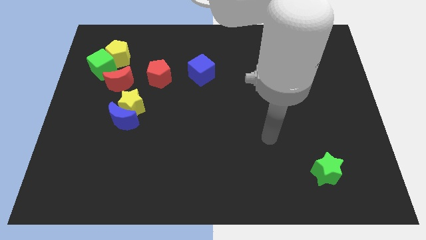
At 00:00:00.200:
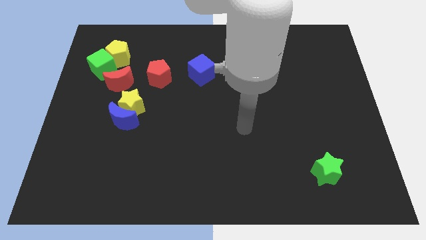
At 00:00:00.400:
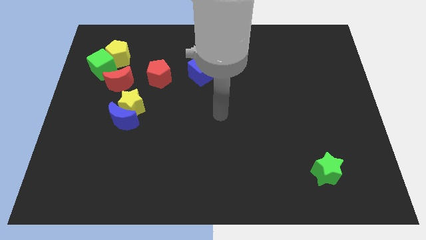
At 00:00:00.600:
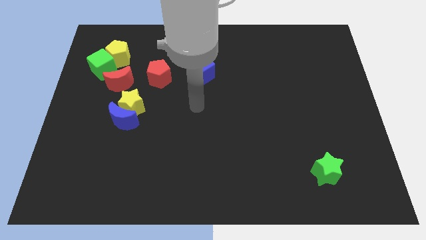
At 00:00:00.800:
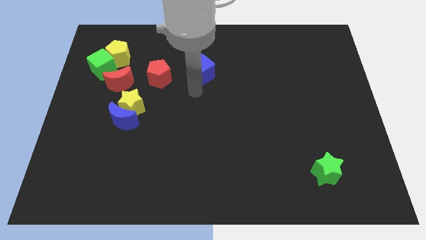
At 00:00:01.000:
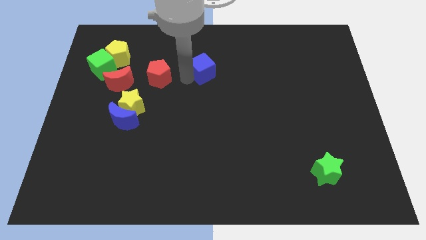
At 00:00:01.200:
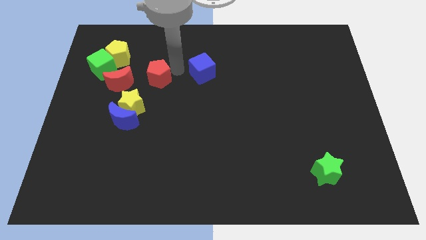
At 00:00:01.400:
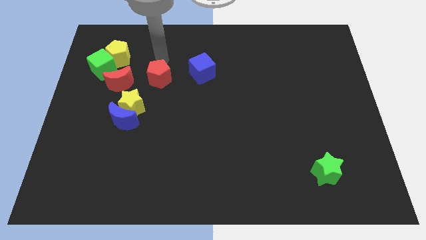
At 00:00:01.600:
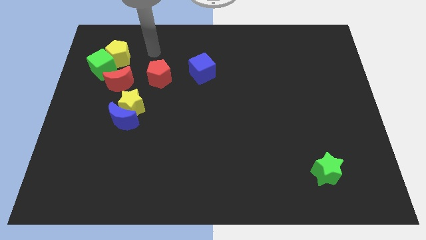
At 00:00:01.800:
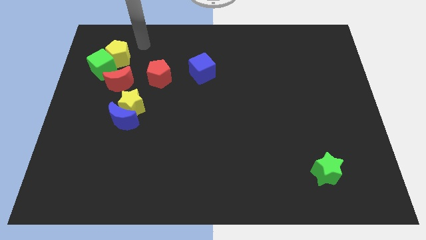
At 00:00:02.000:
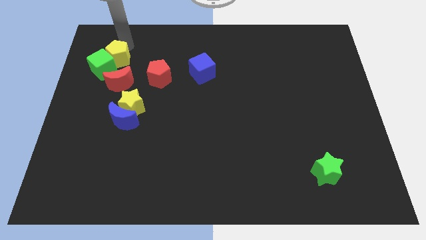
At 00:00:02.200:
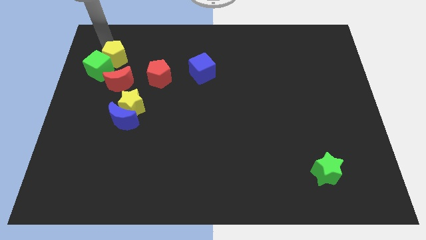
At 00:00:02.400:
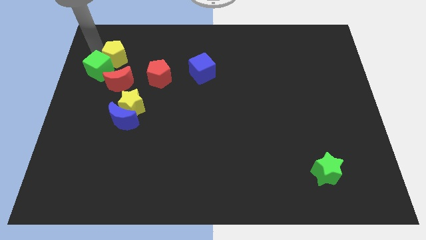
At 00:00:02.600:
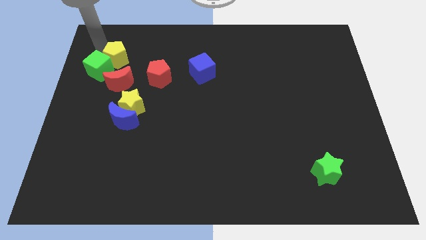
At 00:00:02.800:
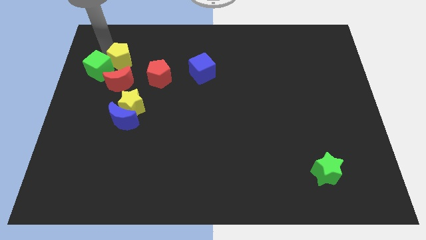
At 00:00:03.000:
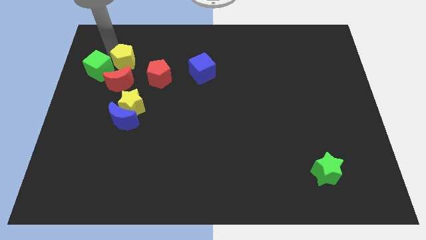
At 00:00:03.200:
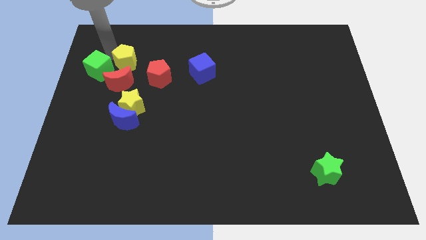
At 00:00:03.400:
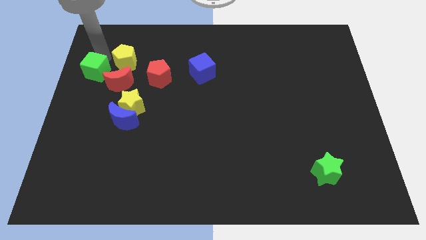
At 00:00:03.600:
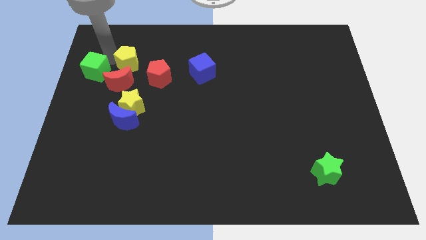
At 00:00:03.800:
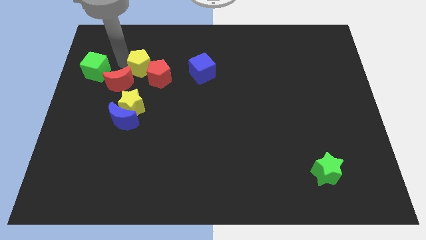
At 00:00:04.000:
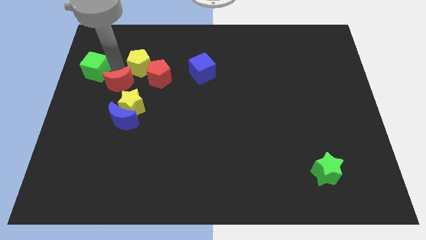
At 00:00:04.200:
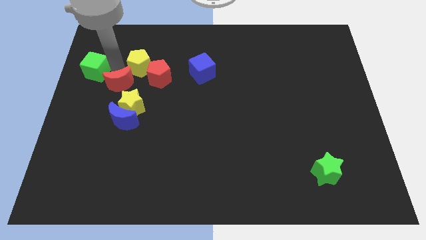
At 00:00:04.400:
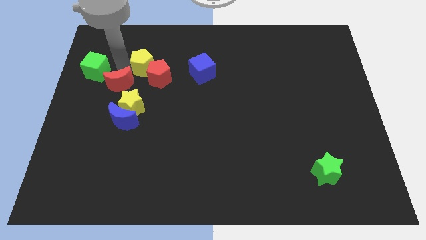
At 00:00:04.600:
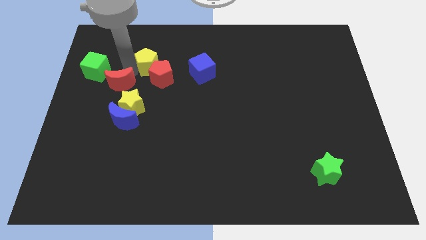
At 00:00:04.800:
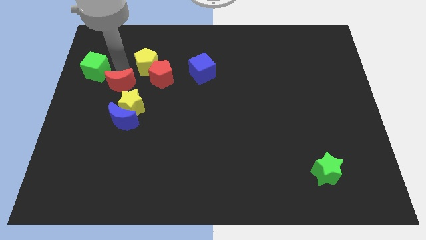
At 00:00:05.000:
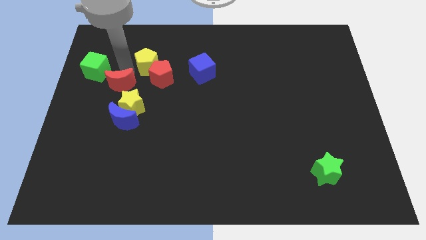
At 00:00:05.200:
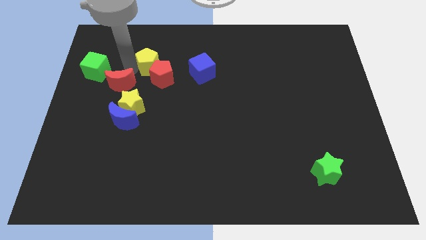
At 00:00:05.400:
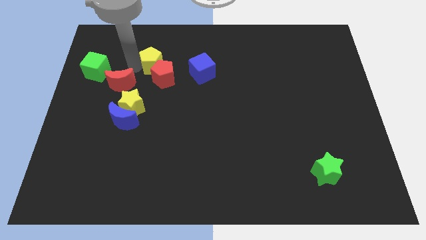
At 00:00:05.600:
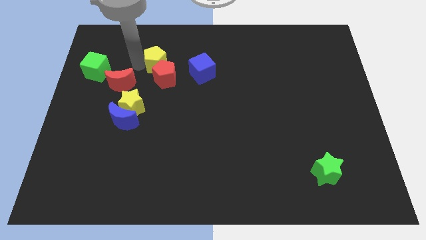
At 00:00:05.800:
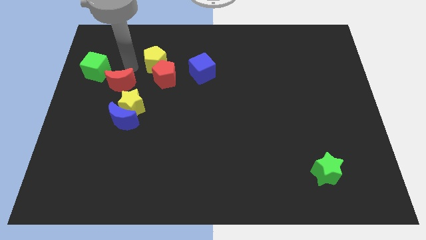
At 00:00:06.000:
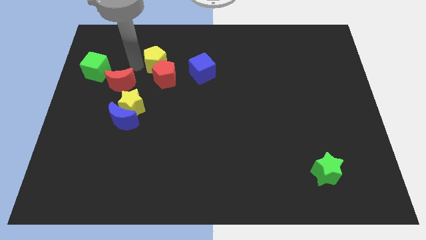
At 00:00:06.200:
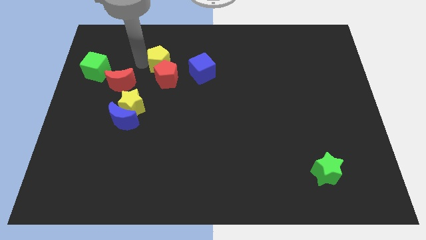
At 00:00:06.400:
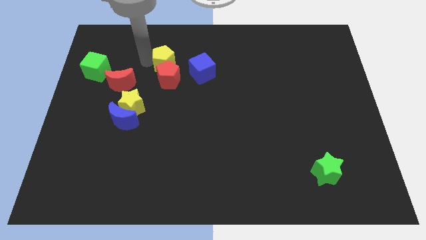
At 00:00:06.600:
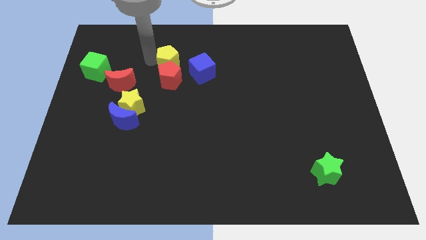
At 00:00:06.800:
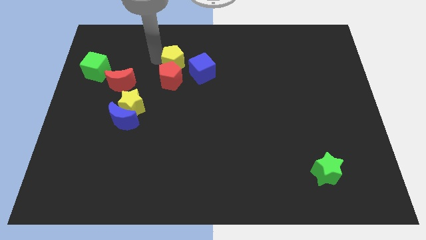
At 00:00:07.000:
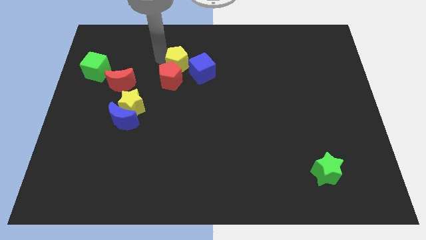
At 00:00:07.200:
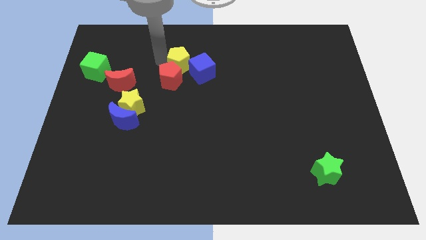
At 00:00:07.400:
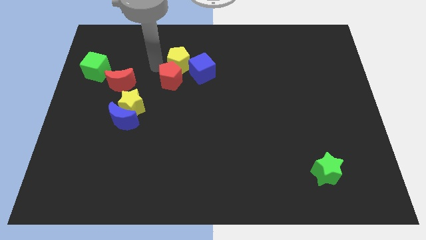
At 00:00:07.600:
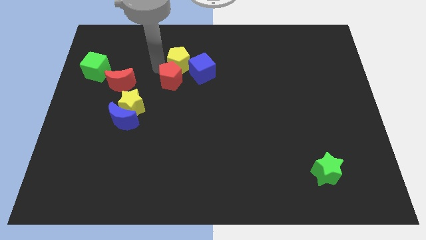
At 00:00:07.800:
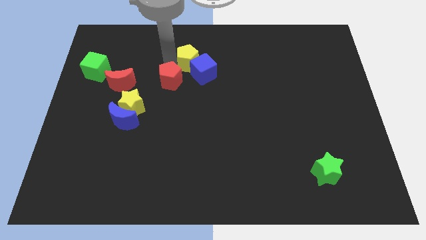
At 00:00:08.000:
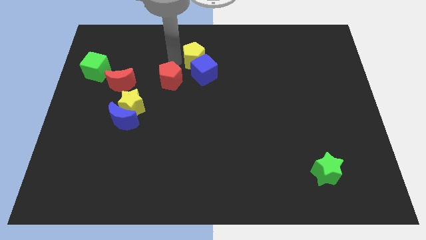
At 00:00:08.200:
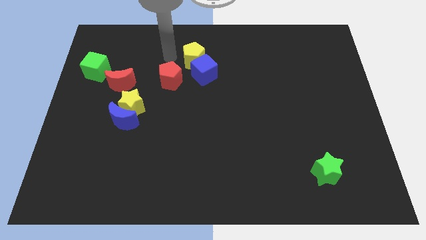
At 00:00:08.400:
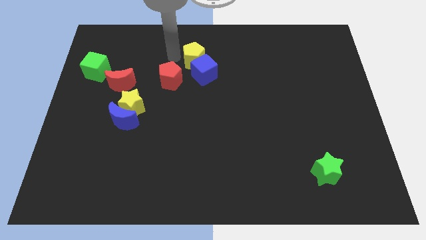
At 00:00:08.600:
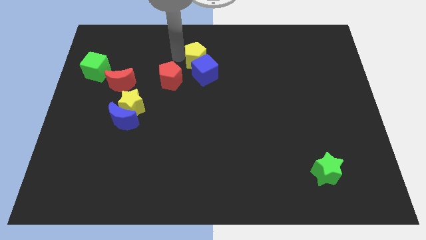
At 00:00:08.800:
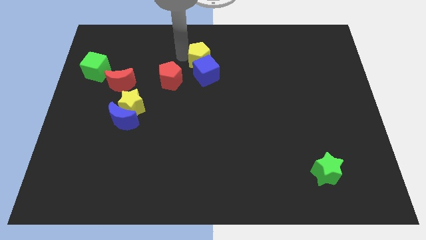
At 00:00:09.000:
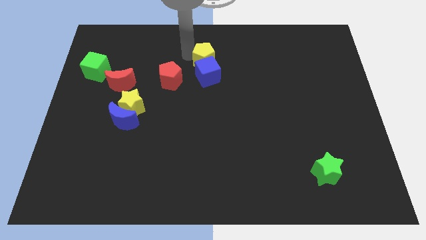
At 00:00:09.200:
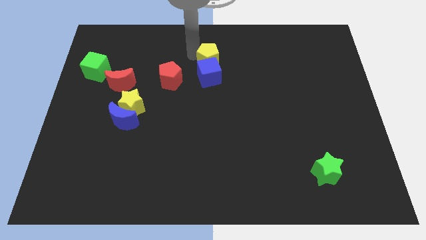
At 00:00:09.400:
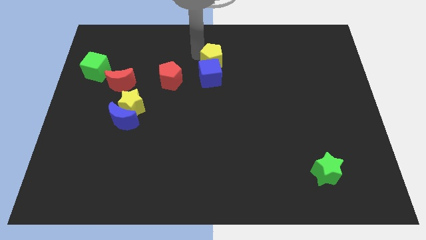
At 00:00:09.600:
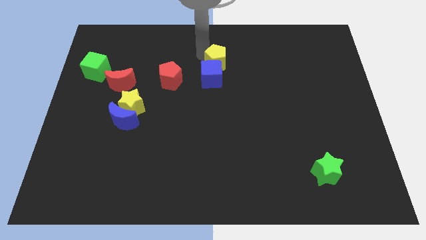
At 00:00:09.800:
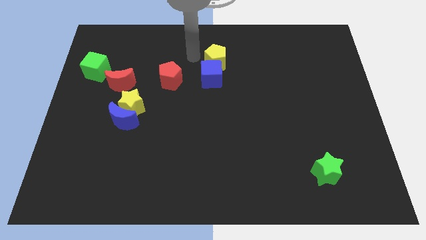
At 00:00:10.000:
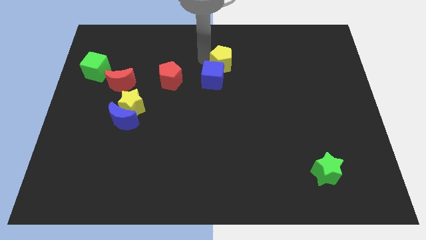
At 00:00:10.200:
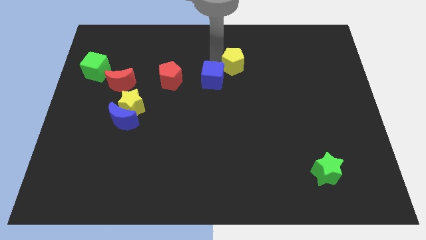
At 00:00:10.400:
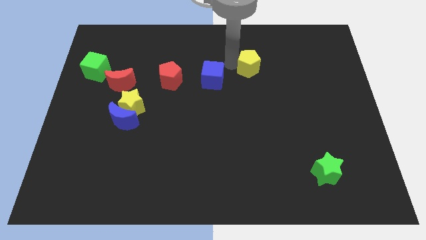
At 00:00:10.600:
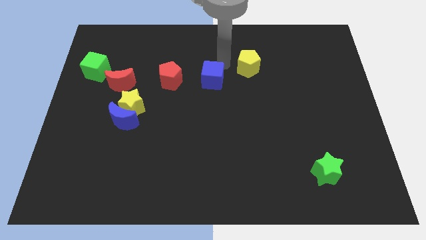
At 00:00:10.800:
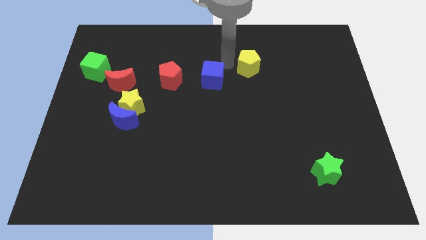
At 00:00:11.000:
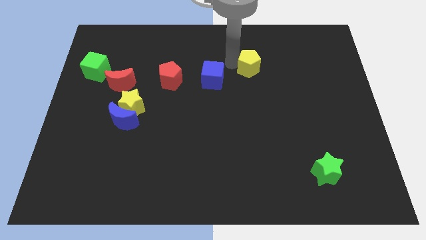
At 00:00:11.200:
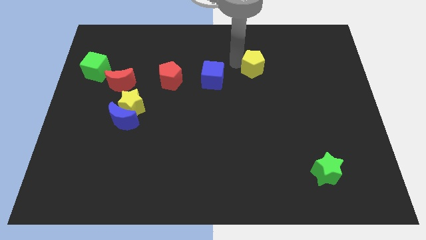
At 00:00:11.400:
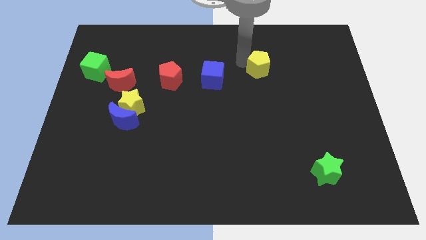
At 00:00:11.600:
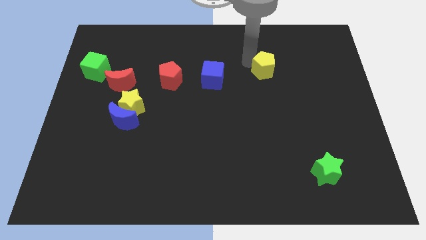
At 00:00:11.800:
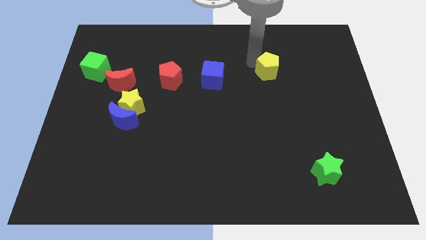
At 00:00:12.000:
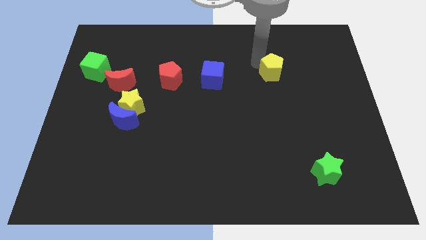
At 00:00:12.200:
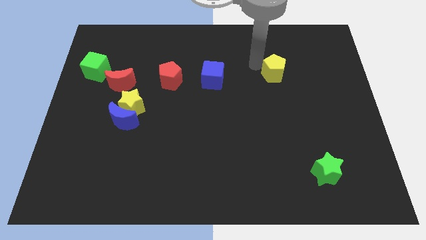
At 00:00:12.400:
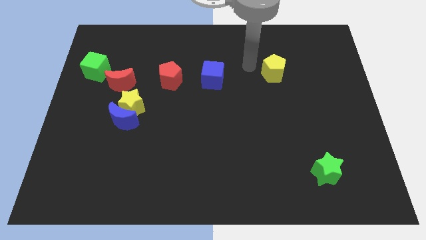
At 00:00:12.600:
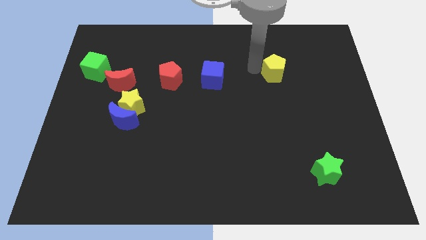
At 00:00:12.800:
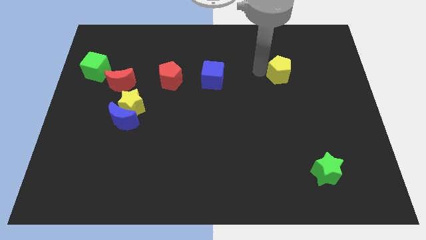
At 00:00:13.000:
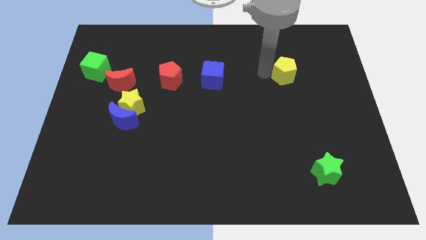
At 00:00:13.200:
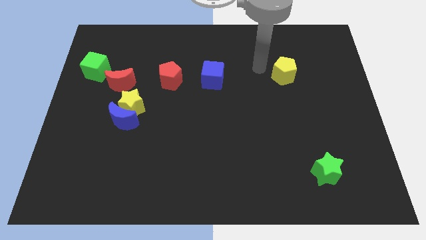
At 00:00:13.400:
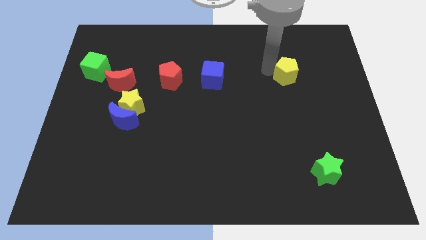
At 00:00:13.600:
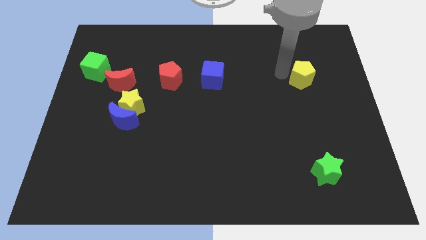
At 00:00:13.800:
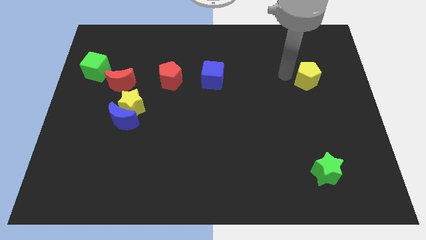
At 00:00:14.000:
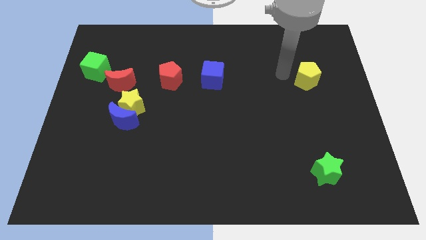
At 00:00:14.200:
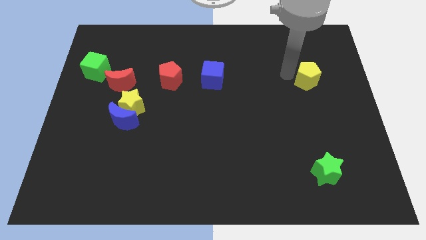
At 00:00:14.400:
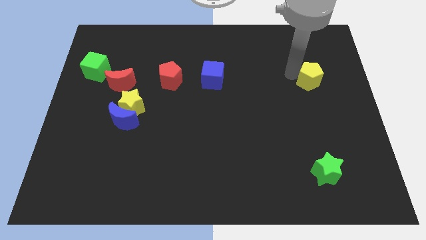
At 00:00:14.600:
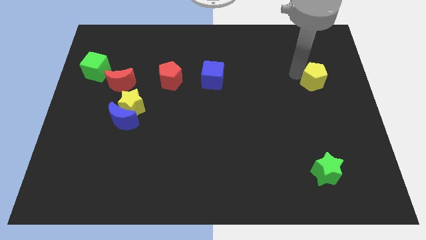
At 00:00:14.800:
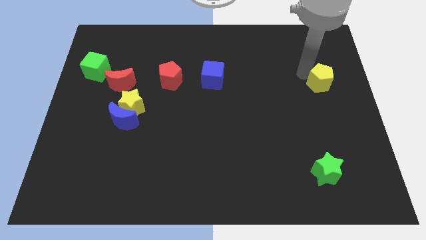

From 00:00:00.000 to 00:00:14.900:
move the yellow pentagon to the right side of the board
